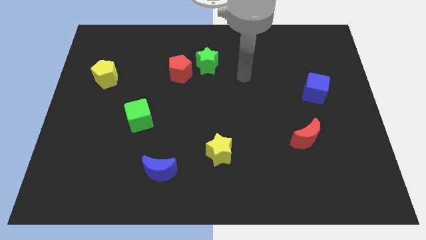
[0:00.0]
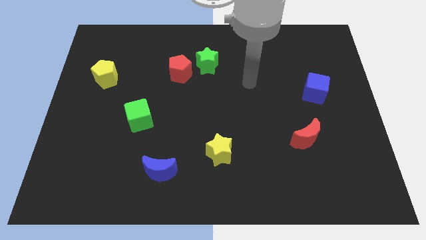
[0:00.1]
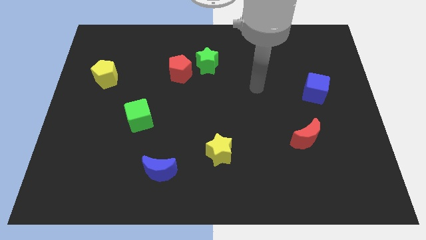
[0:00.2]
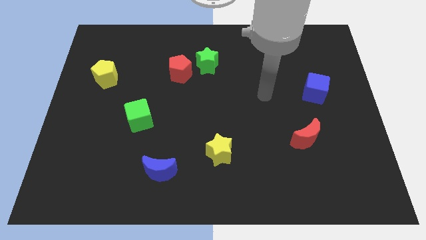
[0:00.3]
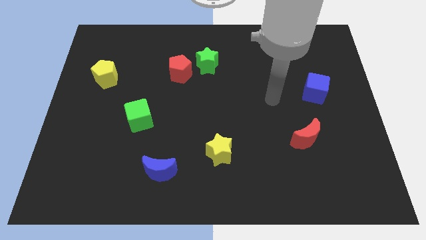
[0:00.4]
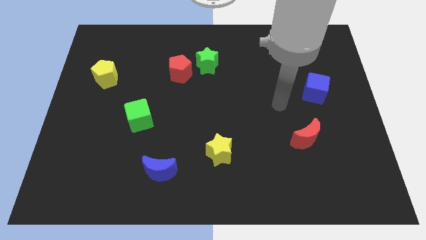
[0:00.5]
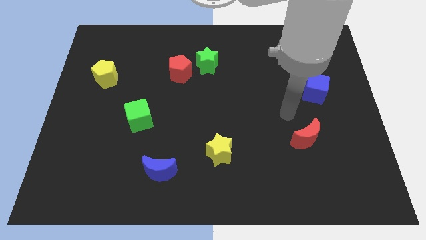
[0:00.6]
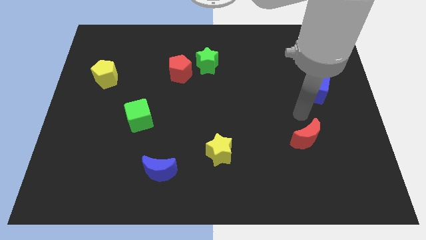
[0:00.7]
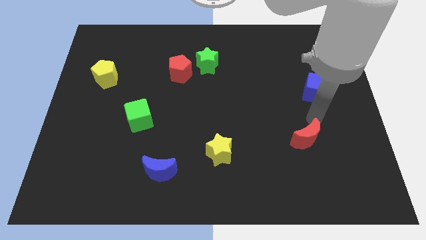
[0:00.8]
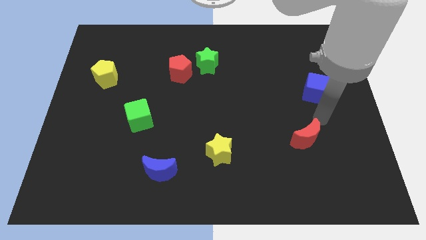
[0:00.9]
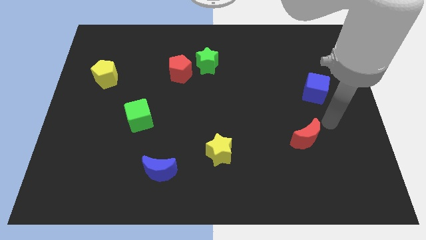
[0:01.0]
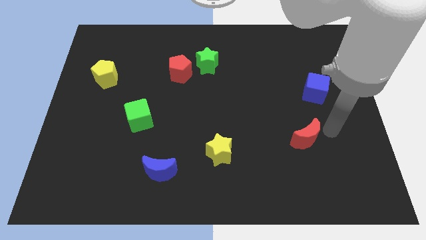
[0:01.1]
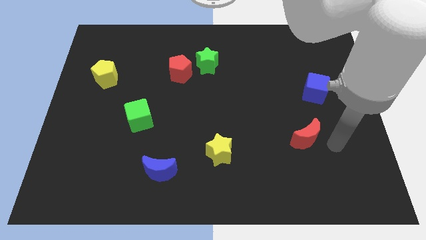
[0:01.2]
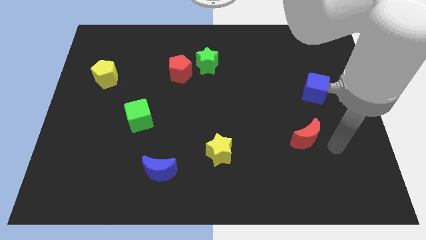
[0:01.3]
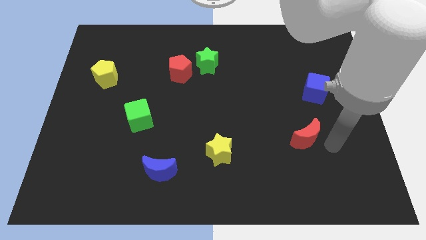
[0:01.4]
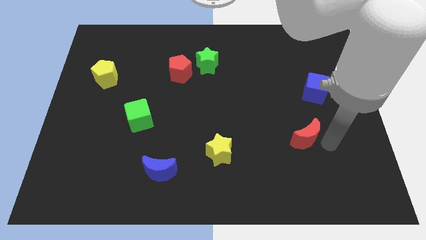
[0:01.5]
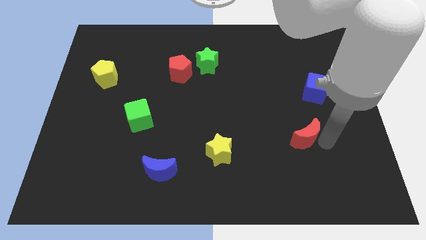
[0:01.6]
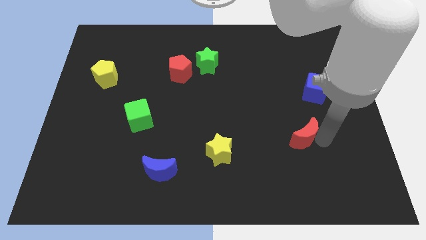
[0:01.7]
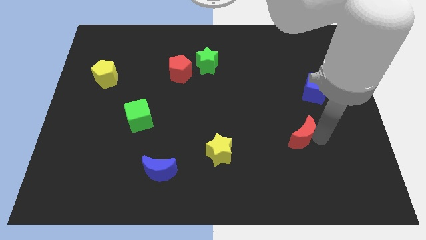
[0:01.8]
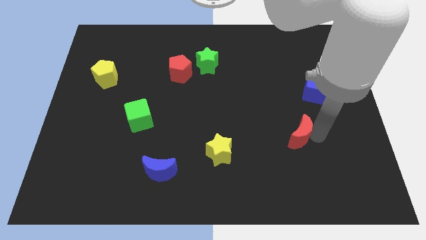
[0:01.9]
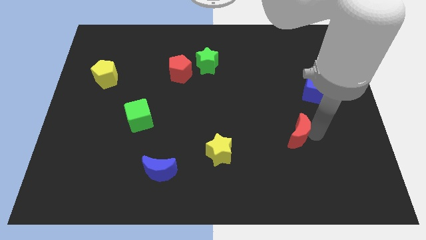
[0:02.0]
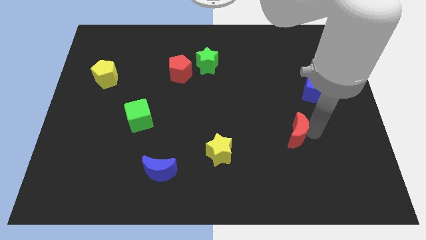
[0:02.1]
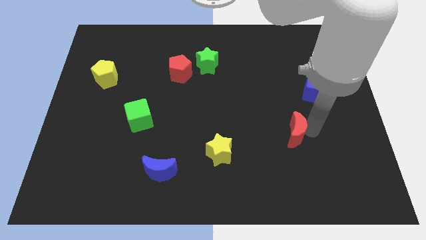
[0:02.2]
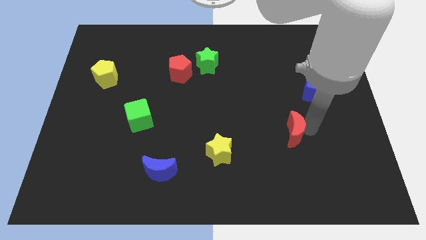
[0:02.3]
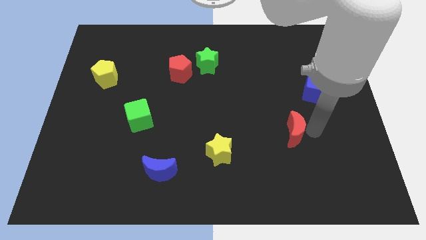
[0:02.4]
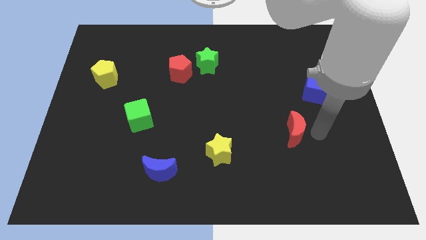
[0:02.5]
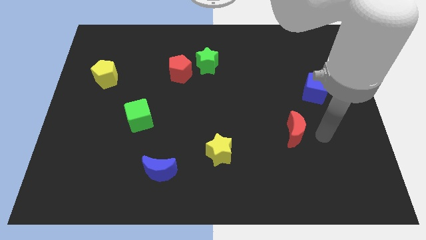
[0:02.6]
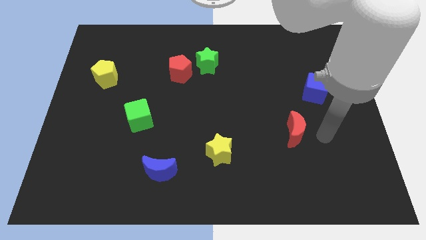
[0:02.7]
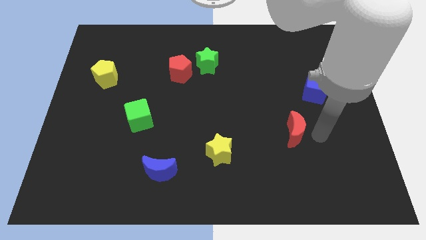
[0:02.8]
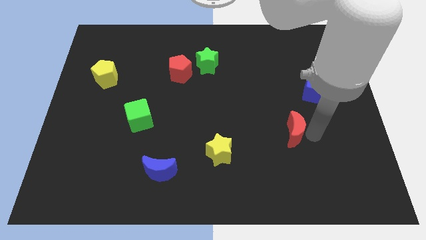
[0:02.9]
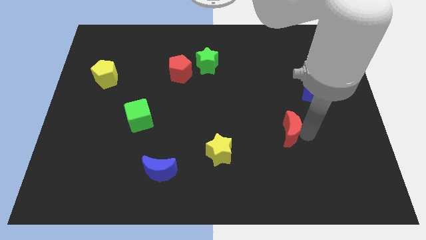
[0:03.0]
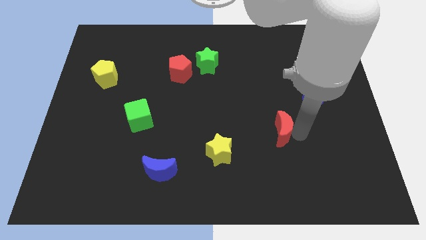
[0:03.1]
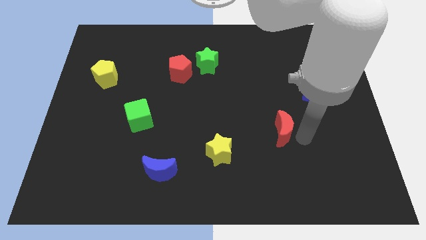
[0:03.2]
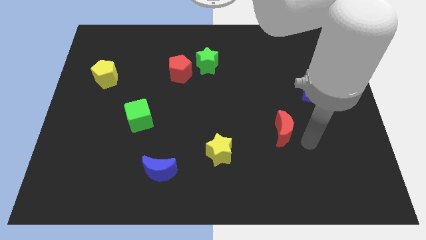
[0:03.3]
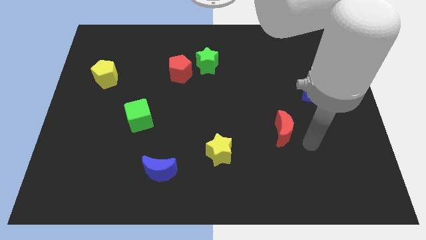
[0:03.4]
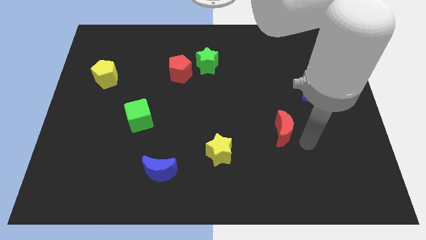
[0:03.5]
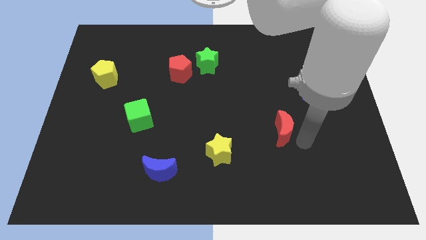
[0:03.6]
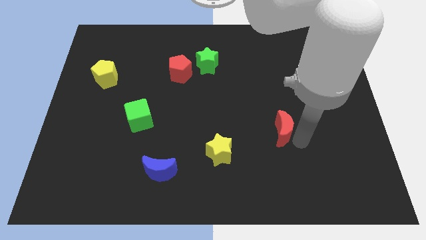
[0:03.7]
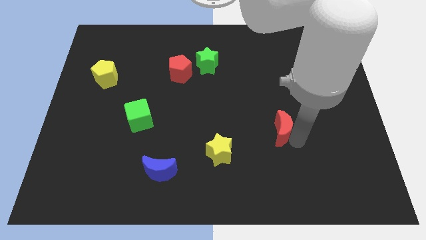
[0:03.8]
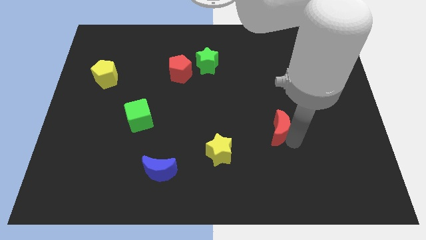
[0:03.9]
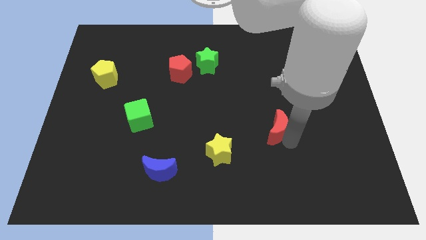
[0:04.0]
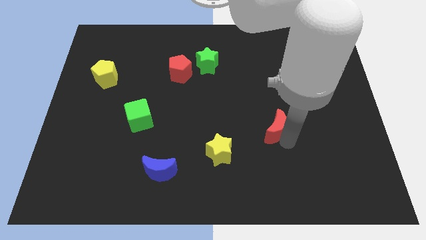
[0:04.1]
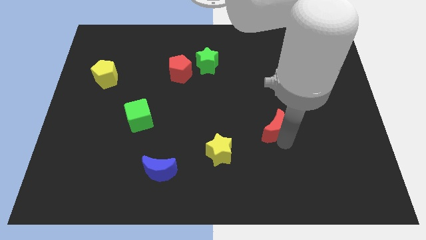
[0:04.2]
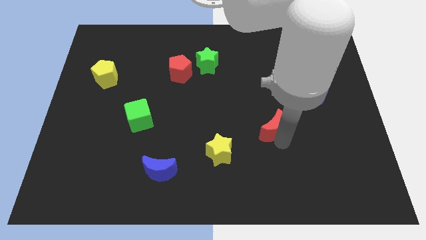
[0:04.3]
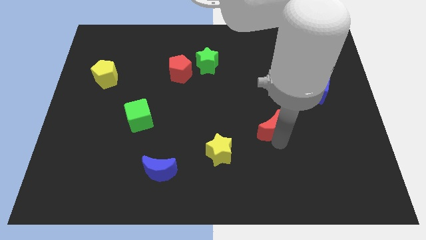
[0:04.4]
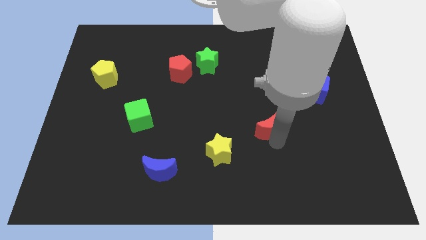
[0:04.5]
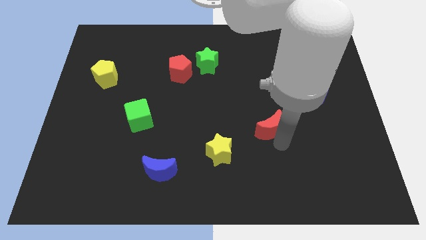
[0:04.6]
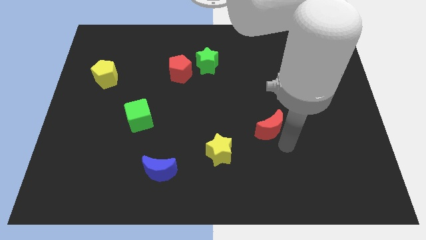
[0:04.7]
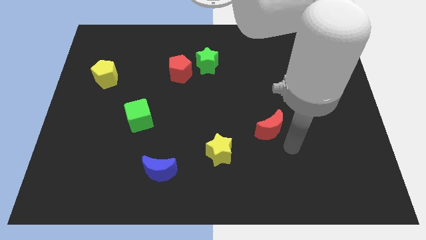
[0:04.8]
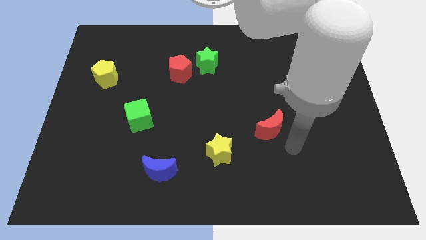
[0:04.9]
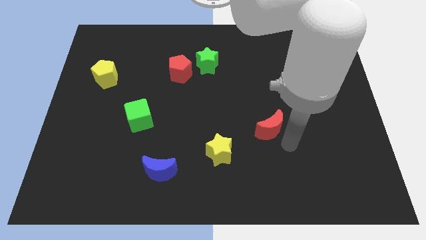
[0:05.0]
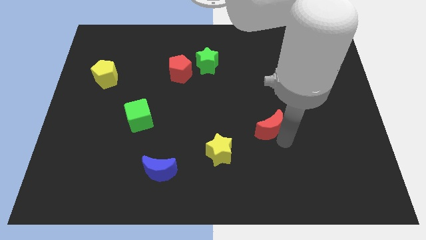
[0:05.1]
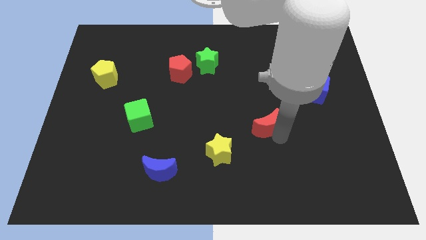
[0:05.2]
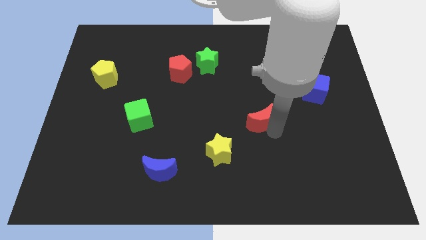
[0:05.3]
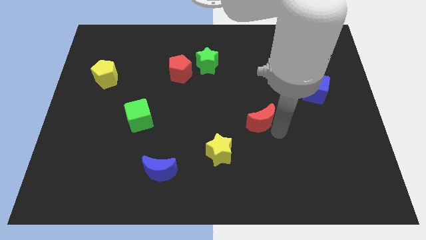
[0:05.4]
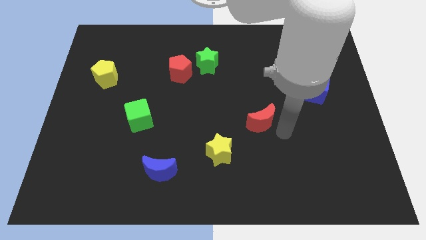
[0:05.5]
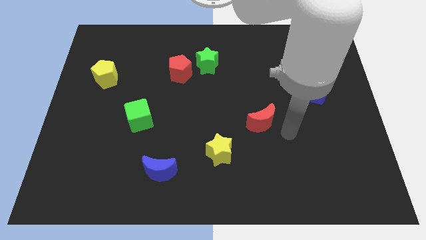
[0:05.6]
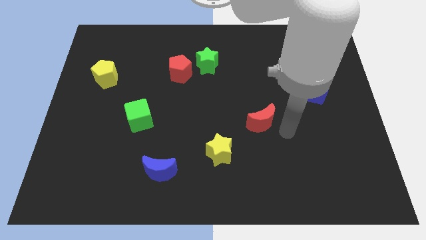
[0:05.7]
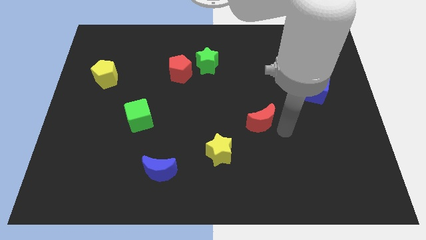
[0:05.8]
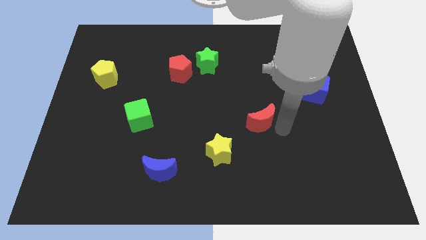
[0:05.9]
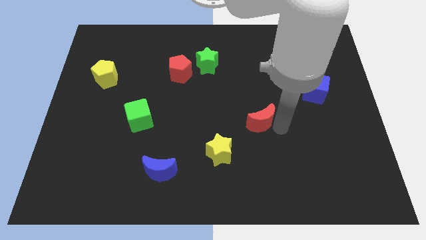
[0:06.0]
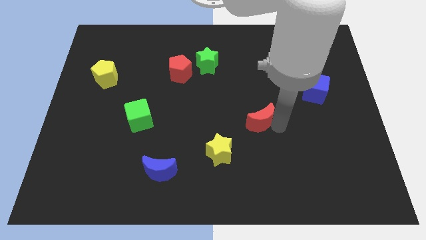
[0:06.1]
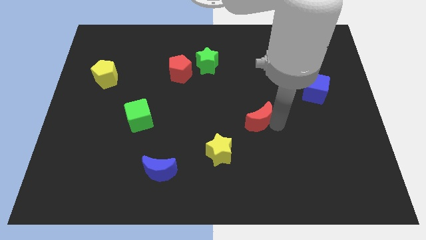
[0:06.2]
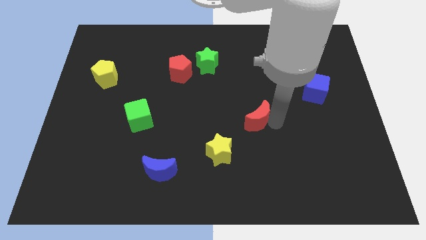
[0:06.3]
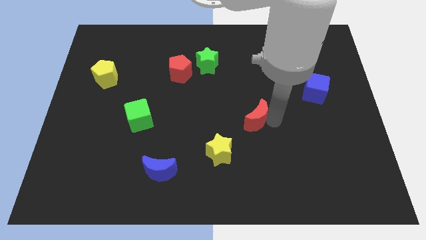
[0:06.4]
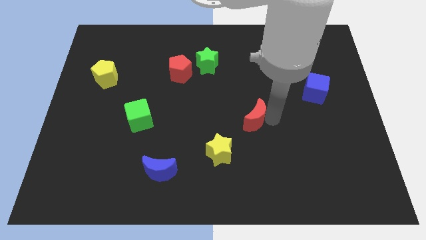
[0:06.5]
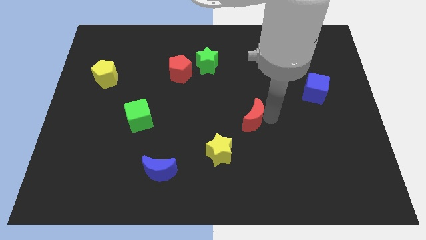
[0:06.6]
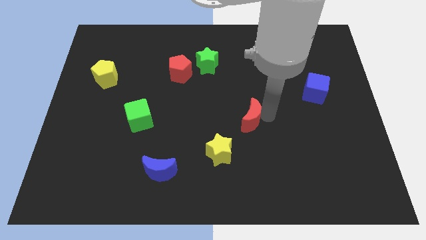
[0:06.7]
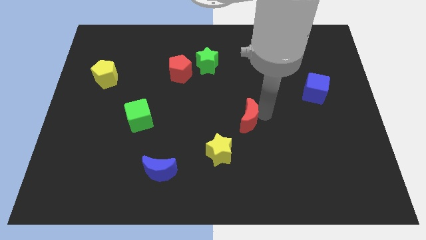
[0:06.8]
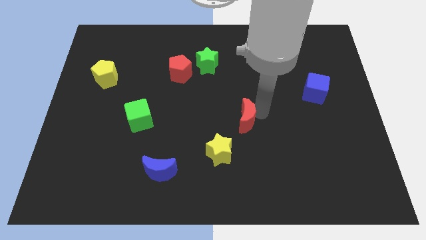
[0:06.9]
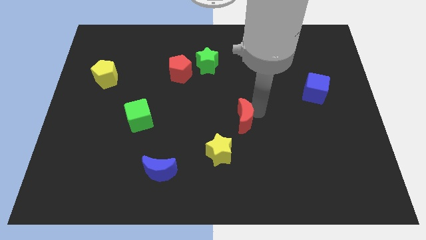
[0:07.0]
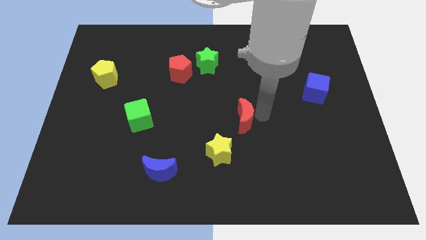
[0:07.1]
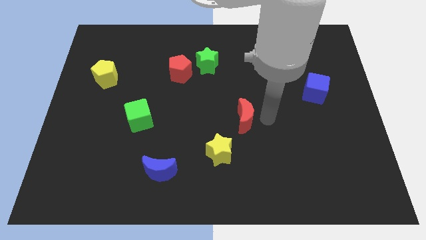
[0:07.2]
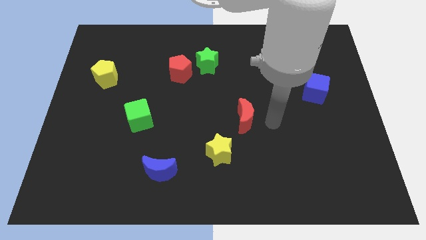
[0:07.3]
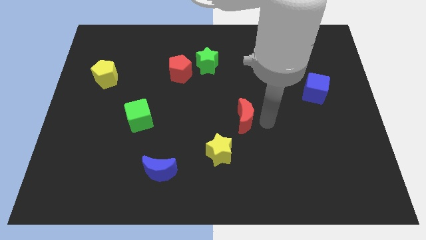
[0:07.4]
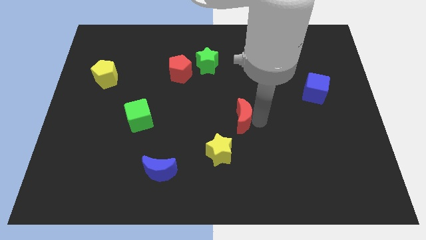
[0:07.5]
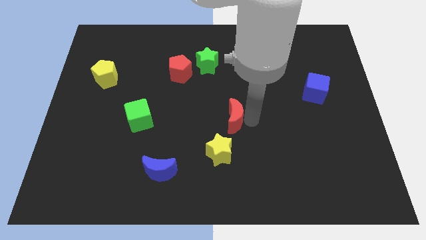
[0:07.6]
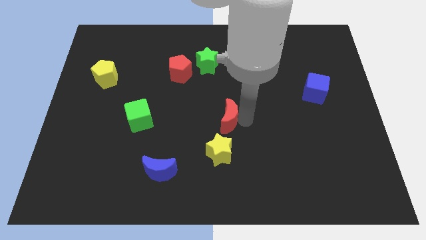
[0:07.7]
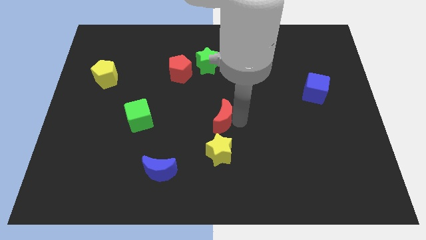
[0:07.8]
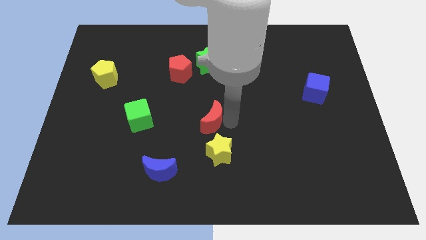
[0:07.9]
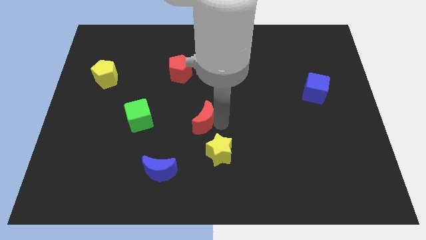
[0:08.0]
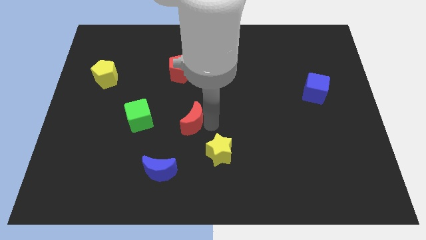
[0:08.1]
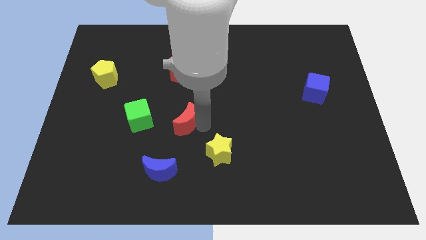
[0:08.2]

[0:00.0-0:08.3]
move the red moon below the red pentagon

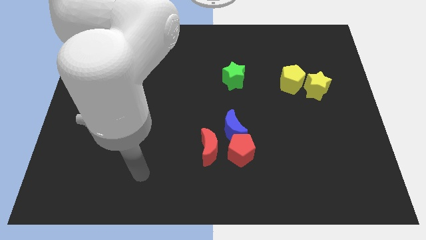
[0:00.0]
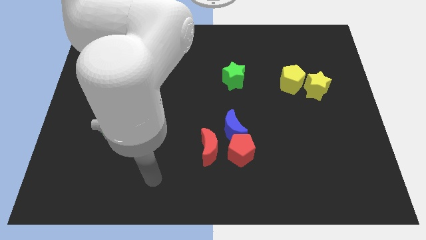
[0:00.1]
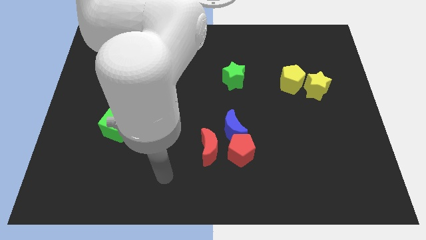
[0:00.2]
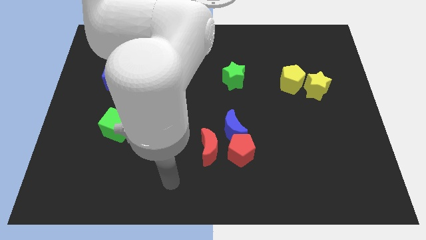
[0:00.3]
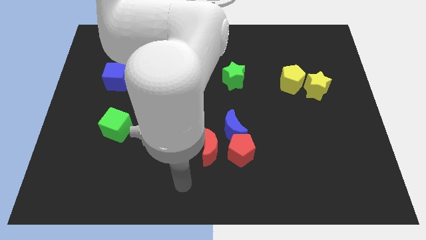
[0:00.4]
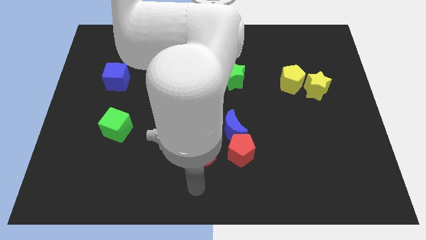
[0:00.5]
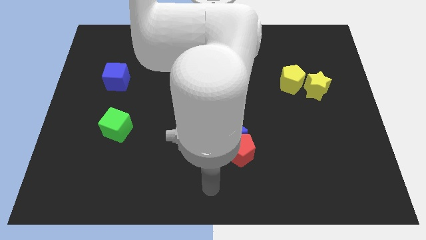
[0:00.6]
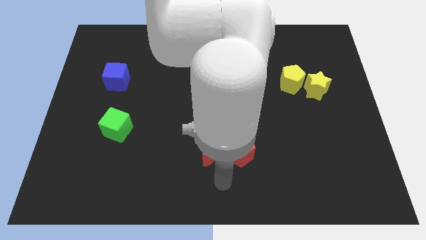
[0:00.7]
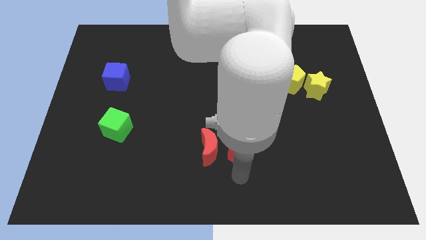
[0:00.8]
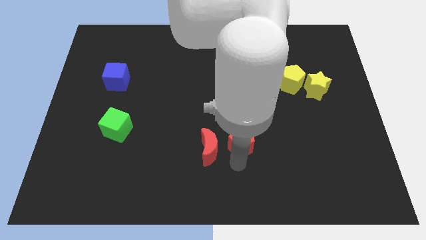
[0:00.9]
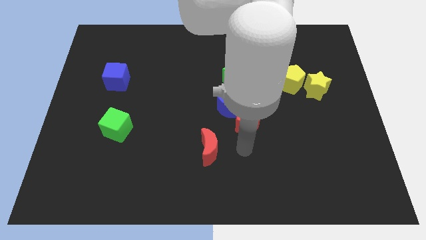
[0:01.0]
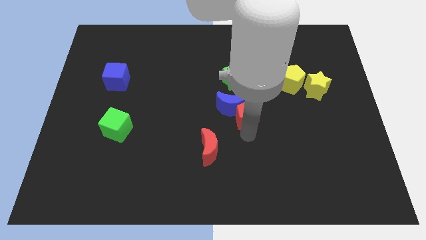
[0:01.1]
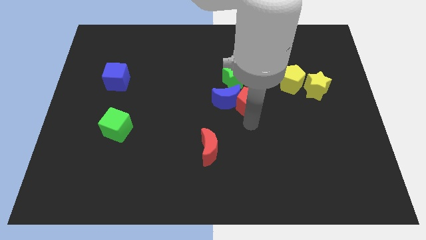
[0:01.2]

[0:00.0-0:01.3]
move the blue moon to the bottom left of the green star
